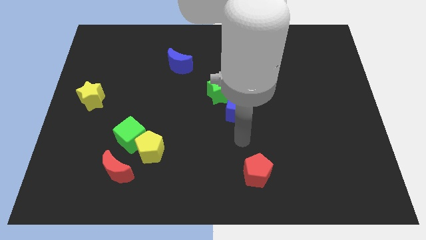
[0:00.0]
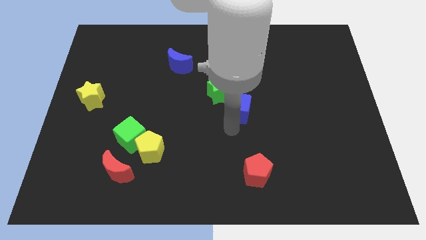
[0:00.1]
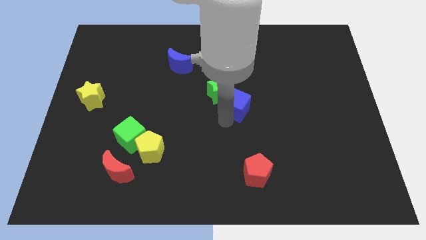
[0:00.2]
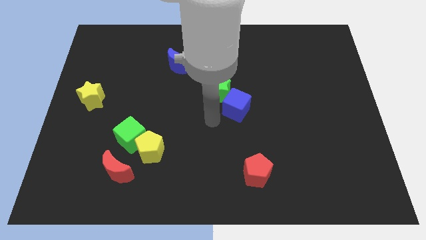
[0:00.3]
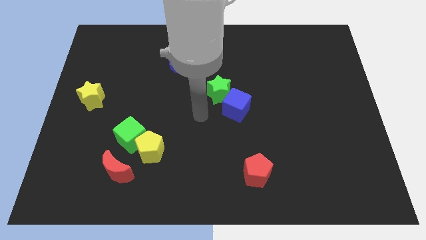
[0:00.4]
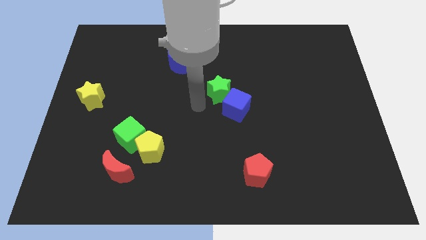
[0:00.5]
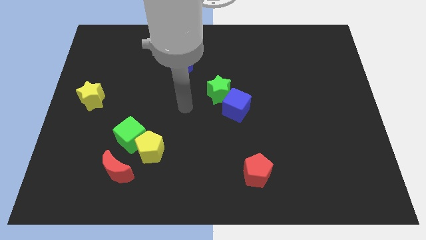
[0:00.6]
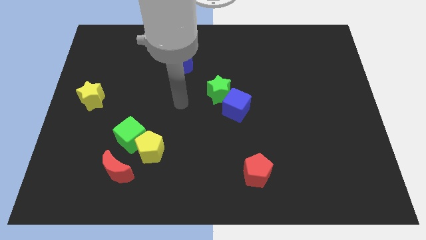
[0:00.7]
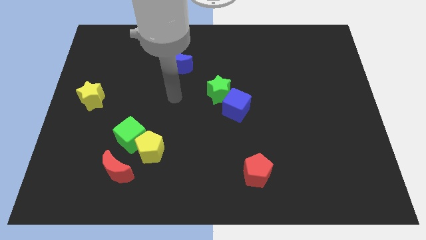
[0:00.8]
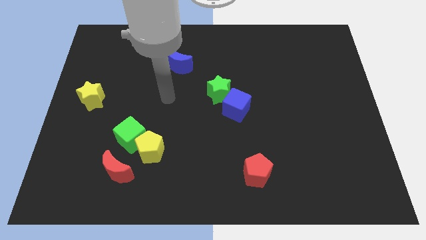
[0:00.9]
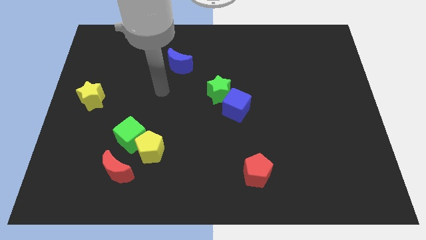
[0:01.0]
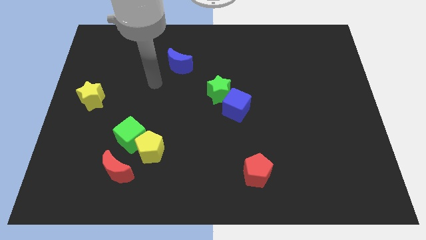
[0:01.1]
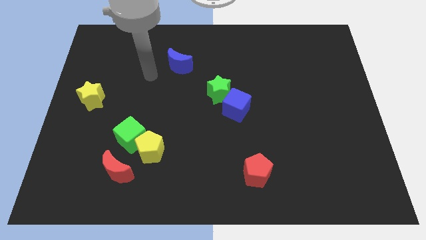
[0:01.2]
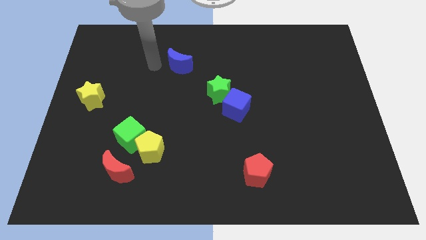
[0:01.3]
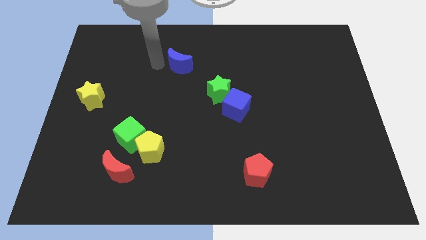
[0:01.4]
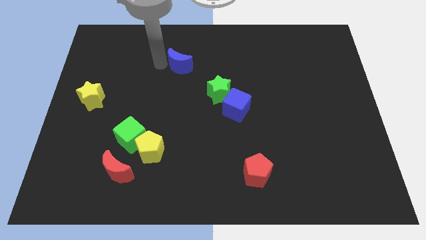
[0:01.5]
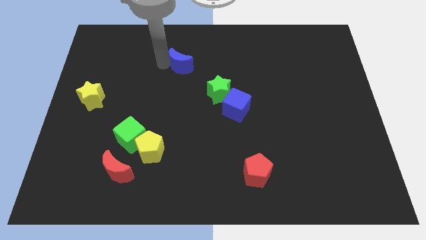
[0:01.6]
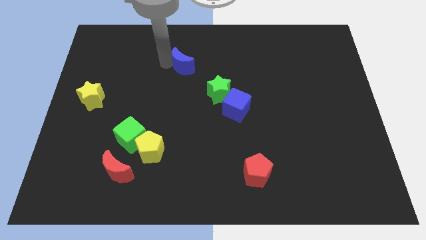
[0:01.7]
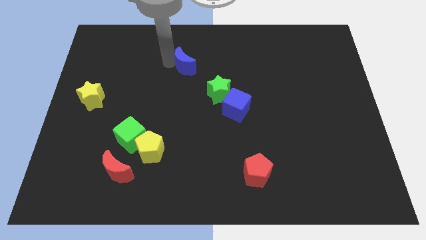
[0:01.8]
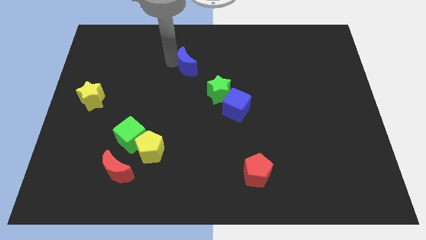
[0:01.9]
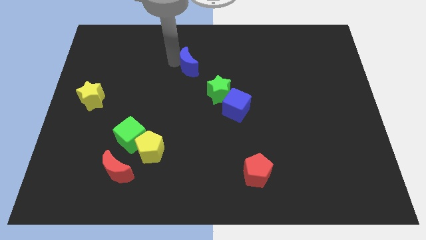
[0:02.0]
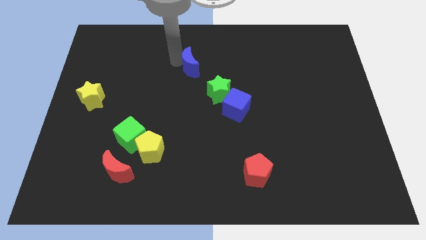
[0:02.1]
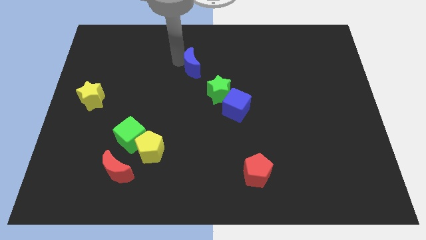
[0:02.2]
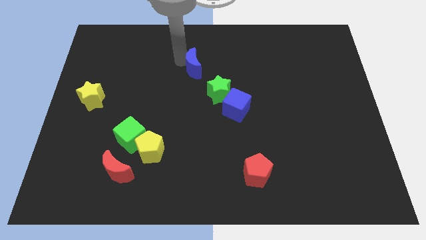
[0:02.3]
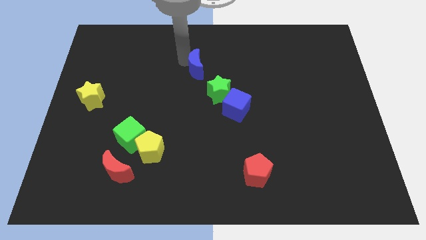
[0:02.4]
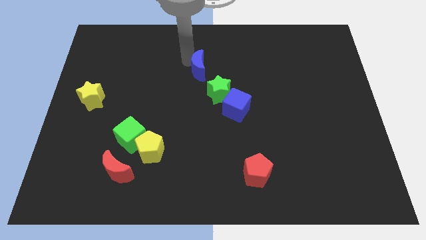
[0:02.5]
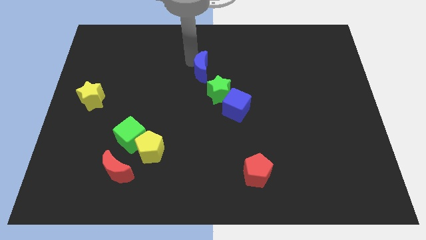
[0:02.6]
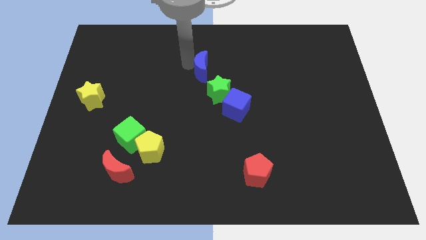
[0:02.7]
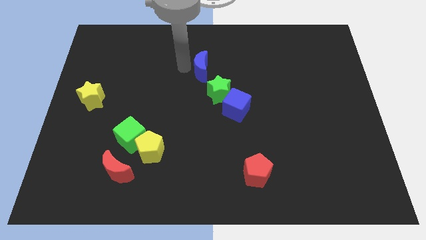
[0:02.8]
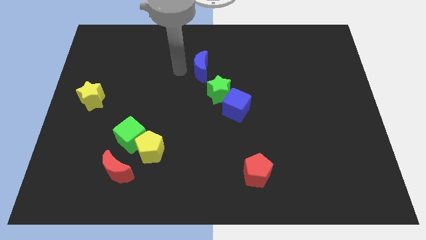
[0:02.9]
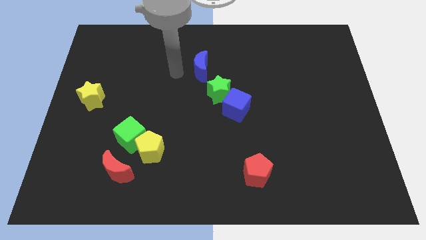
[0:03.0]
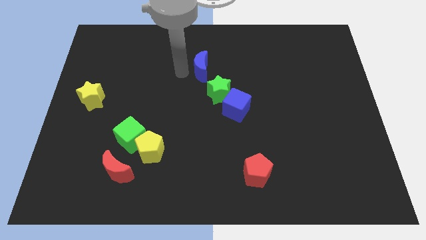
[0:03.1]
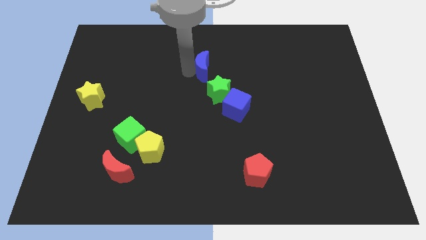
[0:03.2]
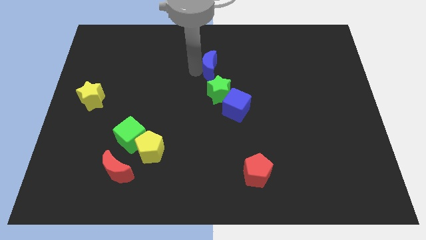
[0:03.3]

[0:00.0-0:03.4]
slide the blue moon slightly to the right

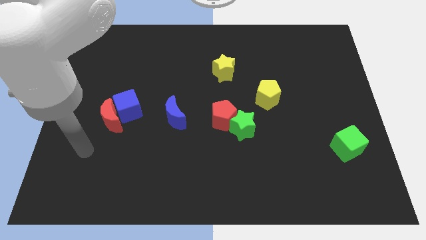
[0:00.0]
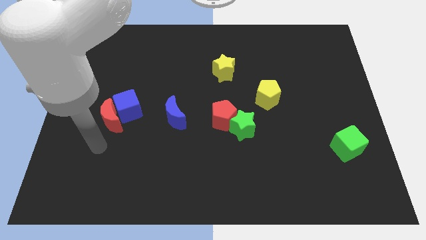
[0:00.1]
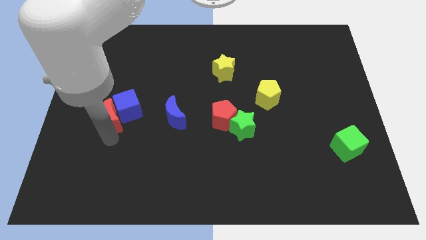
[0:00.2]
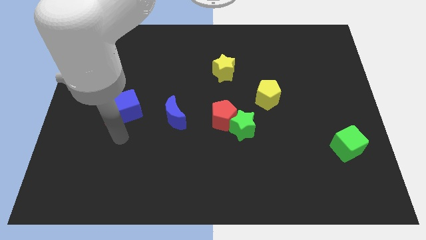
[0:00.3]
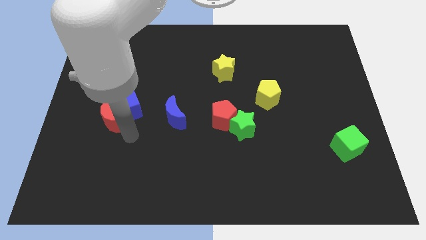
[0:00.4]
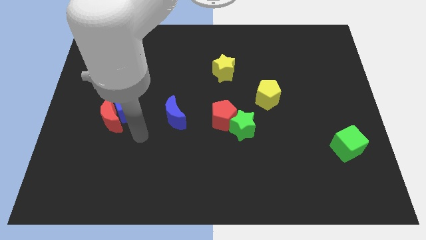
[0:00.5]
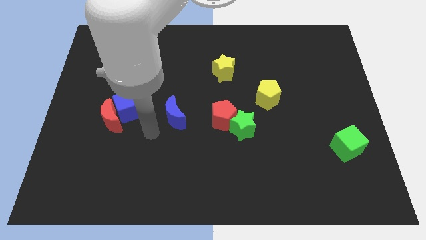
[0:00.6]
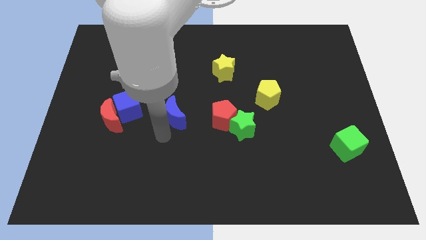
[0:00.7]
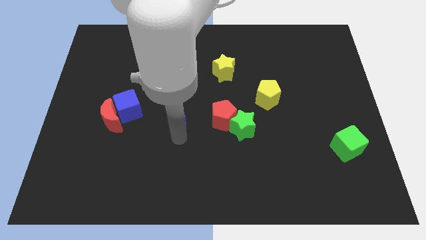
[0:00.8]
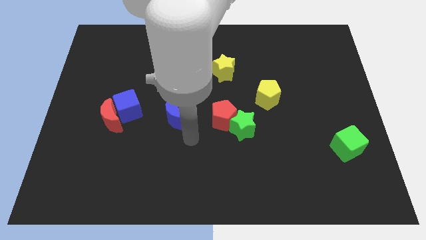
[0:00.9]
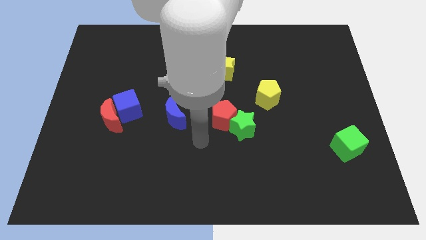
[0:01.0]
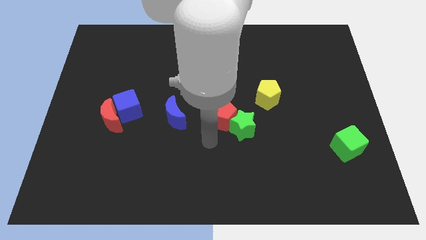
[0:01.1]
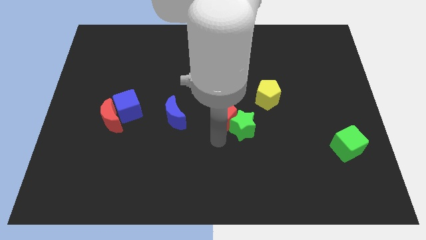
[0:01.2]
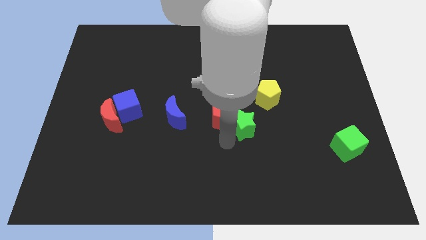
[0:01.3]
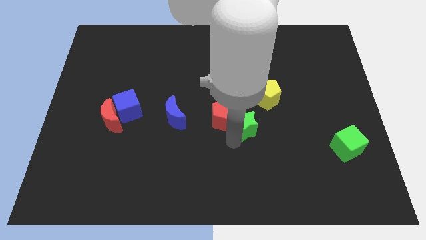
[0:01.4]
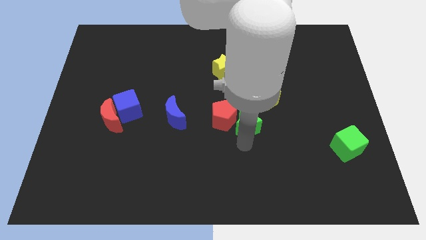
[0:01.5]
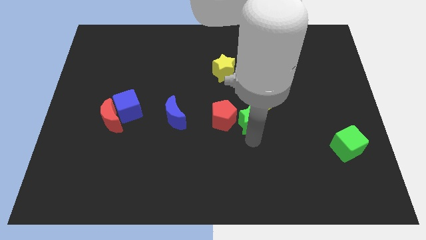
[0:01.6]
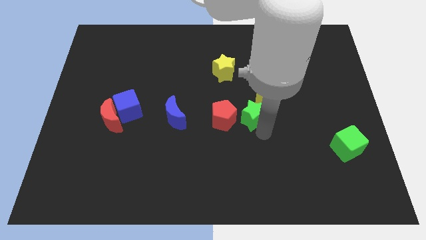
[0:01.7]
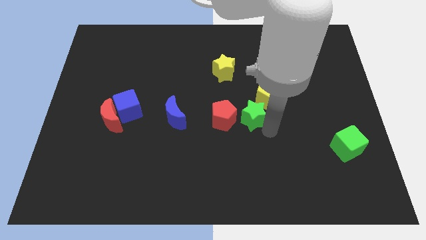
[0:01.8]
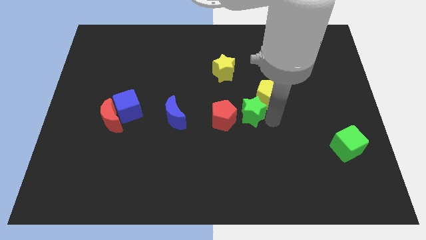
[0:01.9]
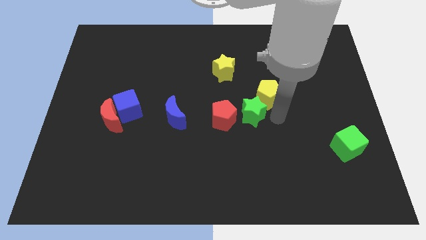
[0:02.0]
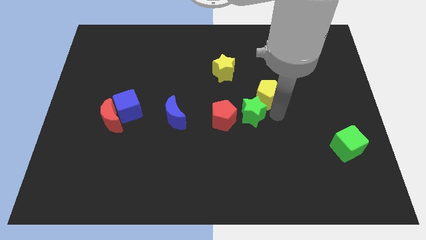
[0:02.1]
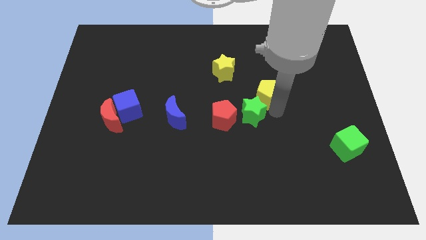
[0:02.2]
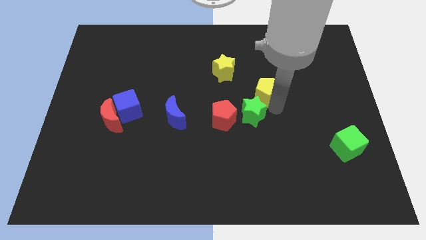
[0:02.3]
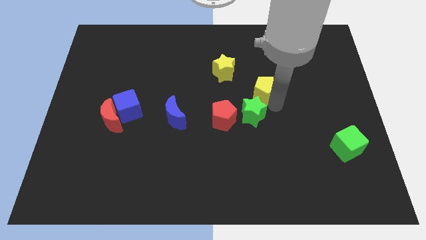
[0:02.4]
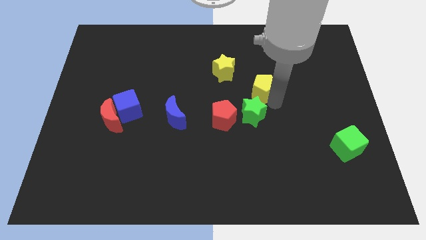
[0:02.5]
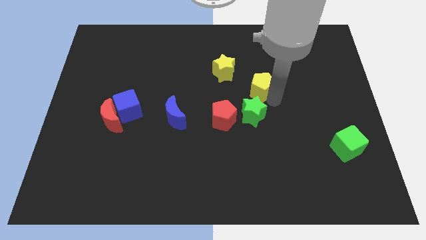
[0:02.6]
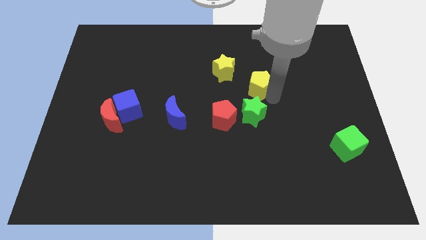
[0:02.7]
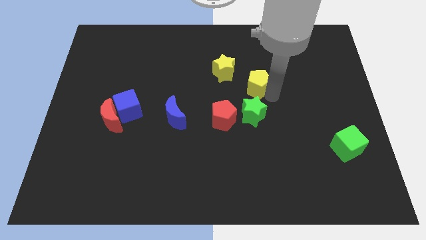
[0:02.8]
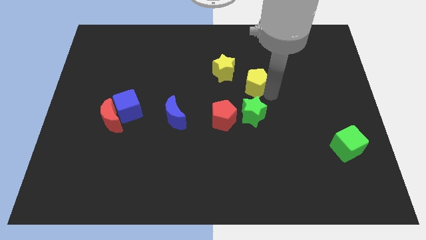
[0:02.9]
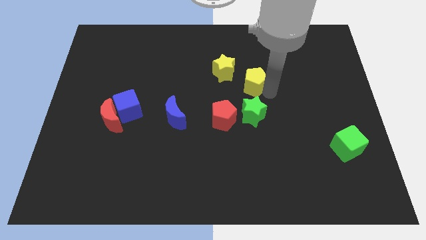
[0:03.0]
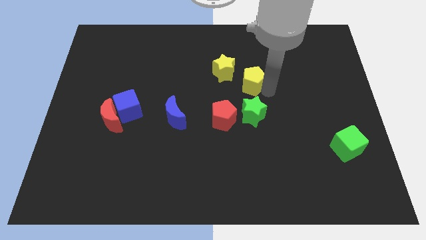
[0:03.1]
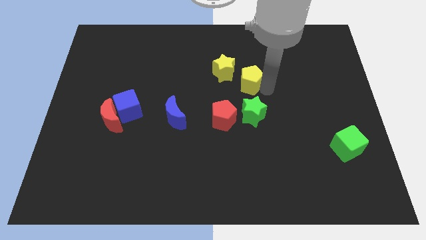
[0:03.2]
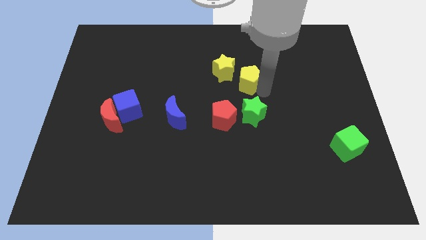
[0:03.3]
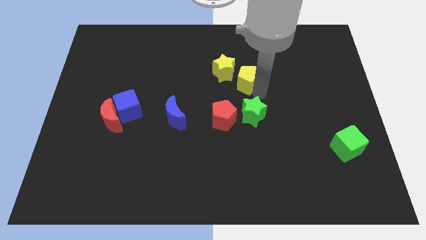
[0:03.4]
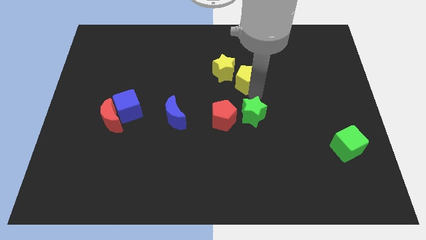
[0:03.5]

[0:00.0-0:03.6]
slightly push the yellow pentagon up and then to the left

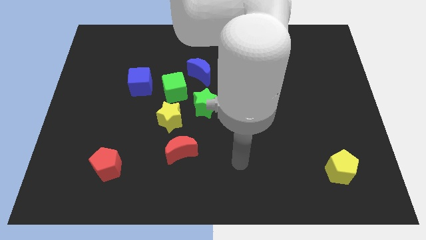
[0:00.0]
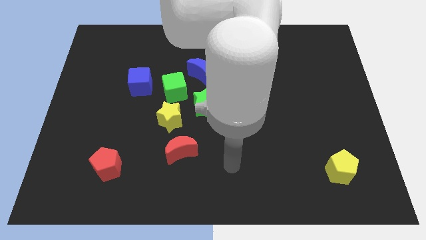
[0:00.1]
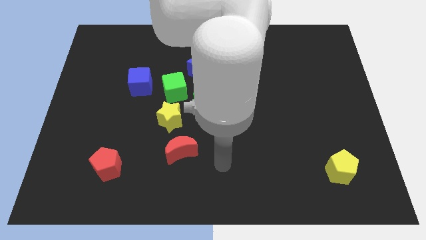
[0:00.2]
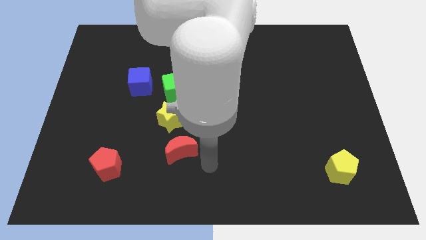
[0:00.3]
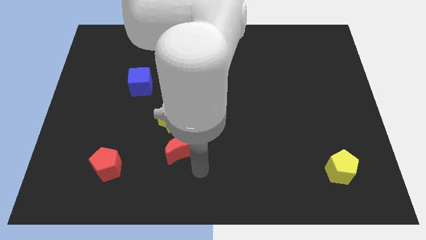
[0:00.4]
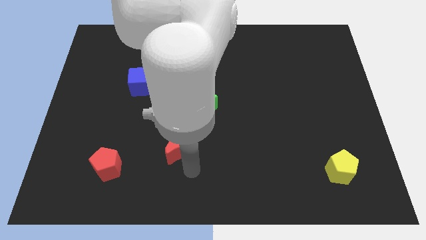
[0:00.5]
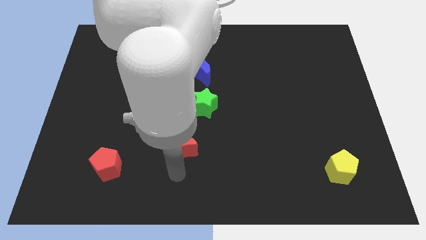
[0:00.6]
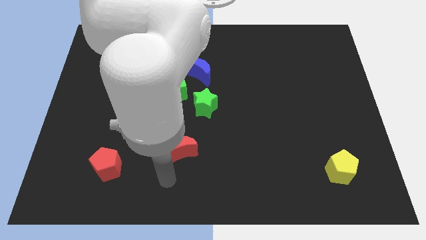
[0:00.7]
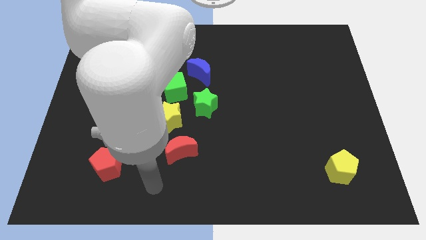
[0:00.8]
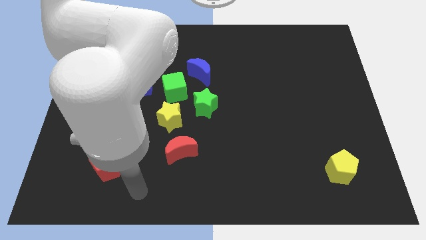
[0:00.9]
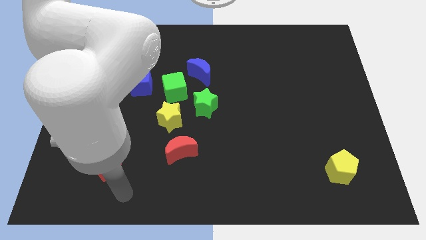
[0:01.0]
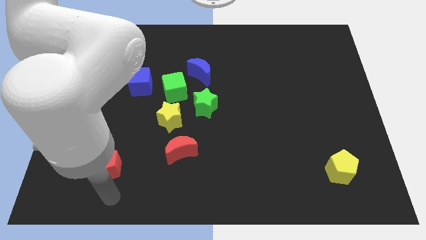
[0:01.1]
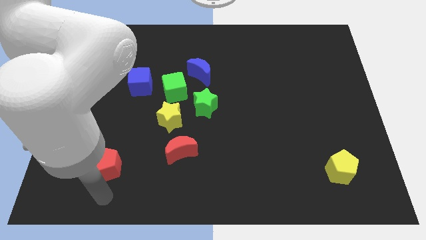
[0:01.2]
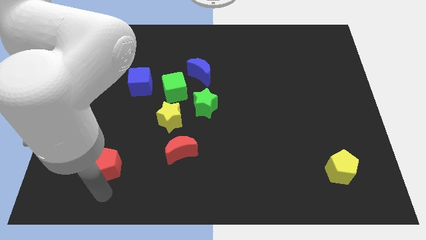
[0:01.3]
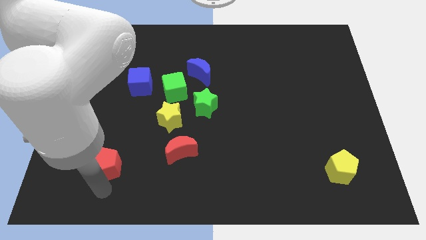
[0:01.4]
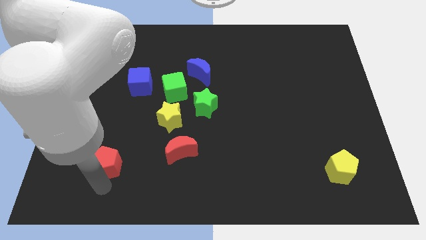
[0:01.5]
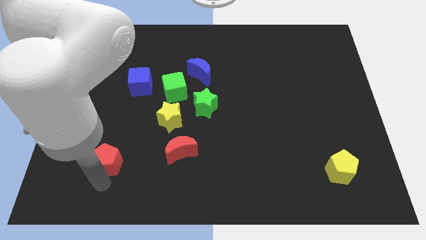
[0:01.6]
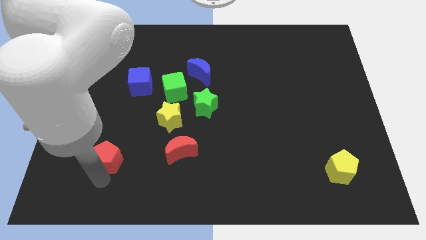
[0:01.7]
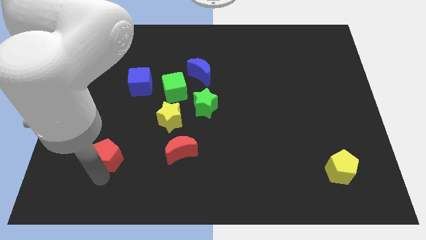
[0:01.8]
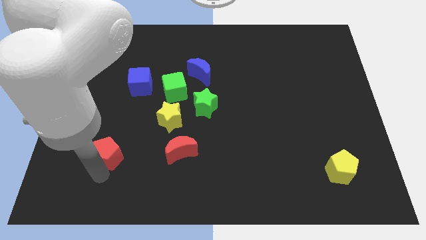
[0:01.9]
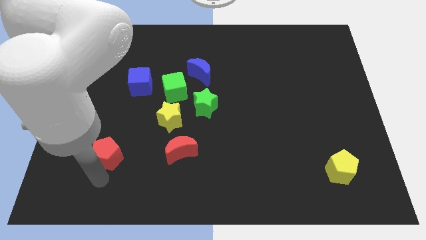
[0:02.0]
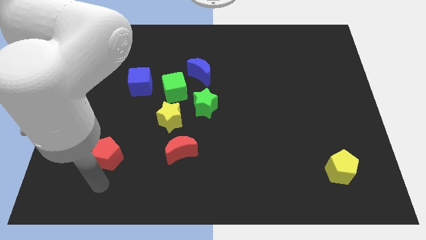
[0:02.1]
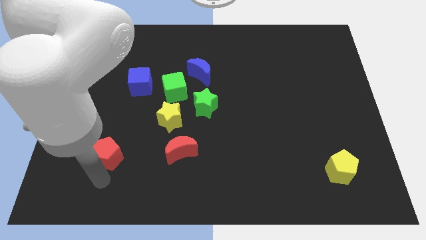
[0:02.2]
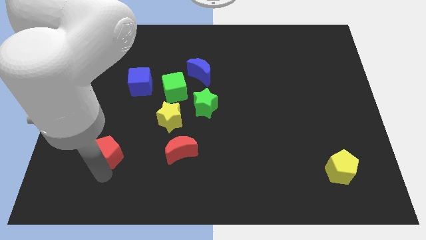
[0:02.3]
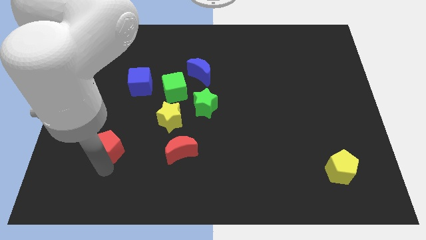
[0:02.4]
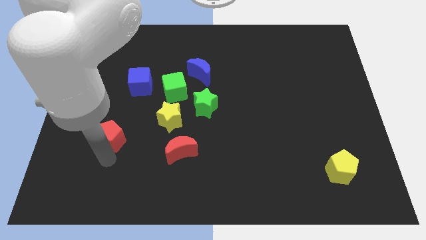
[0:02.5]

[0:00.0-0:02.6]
slide the red pentagon upwards somewhat
